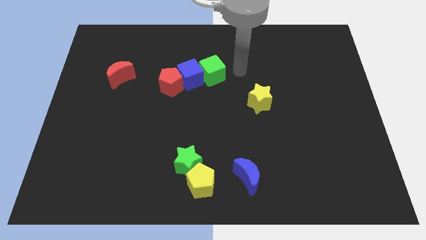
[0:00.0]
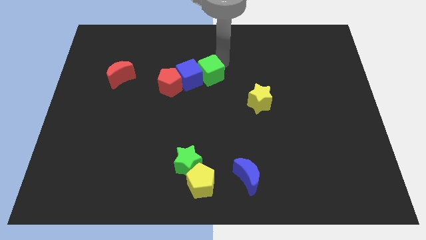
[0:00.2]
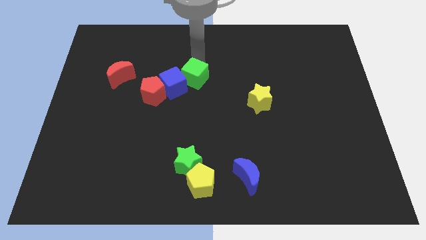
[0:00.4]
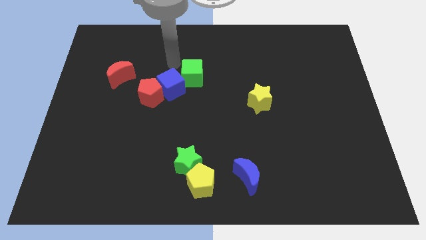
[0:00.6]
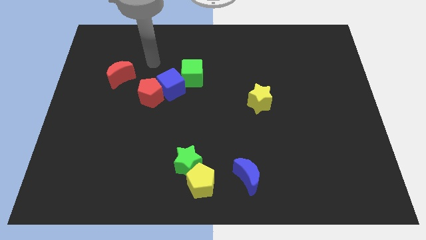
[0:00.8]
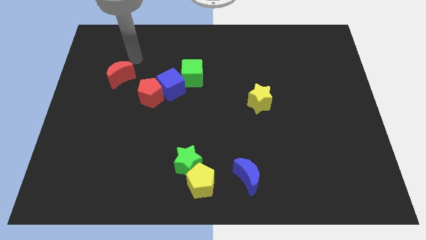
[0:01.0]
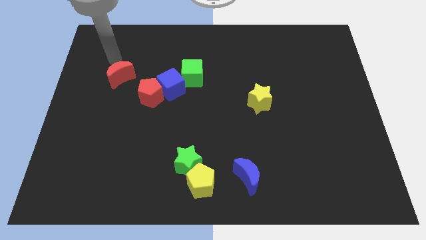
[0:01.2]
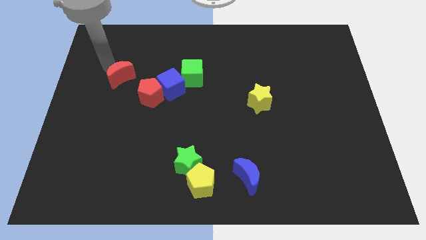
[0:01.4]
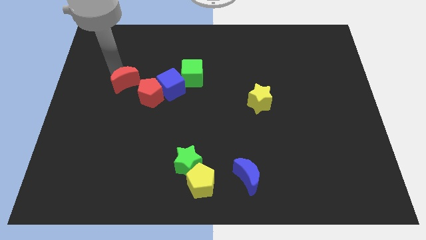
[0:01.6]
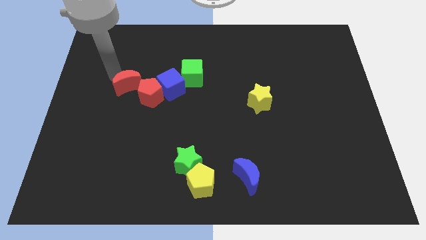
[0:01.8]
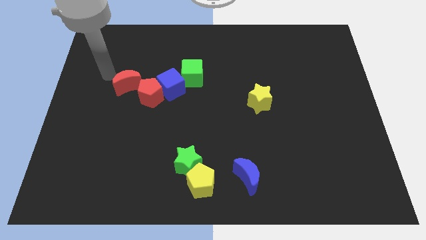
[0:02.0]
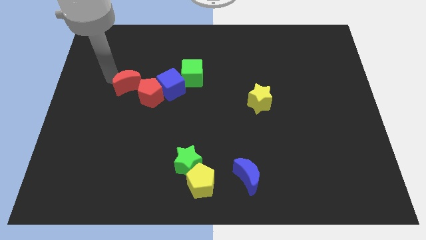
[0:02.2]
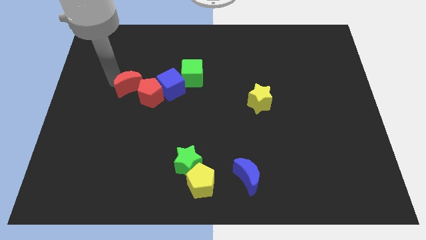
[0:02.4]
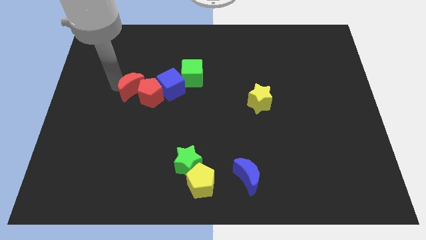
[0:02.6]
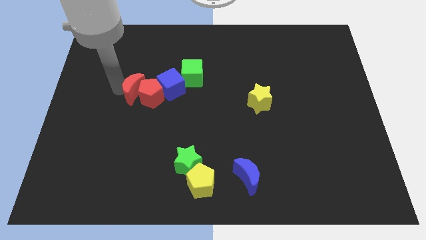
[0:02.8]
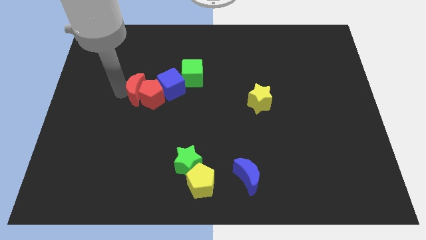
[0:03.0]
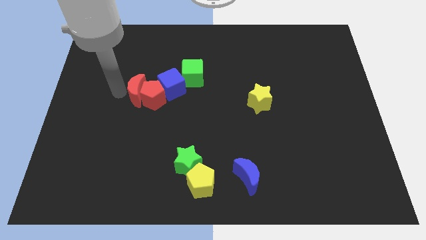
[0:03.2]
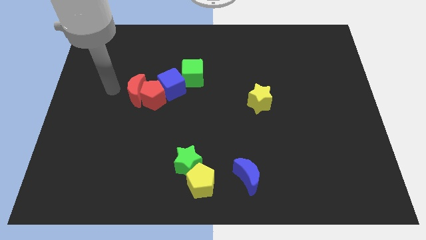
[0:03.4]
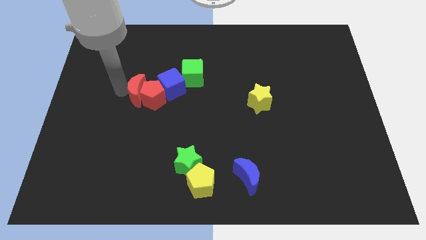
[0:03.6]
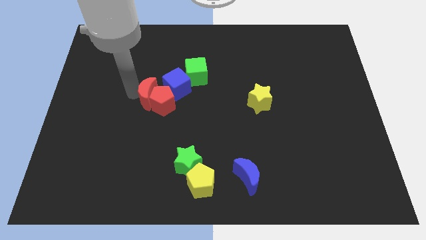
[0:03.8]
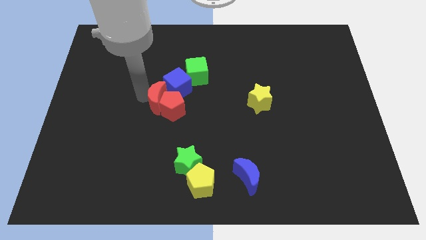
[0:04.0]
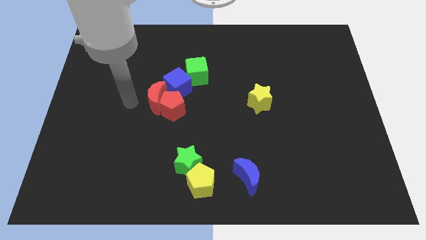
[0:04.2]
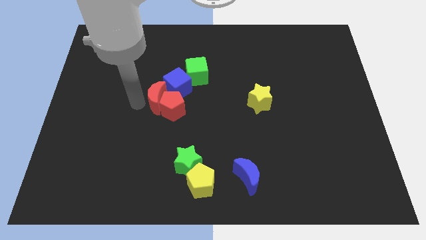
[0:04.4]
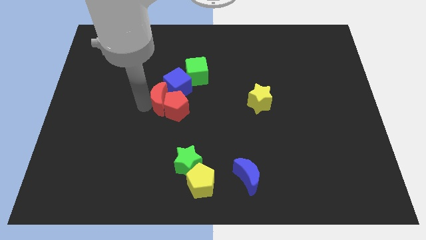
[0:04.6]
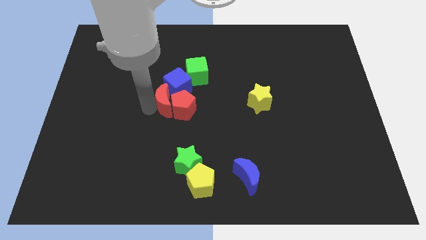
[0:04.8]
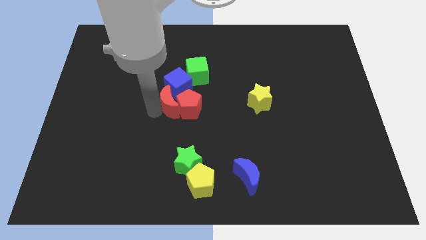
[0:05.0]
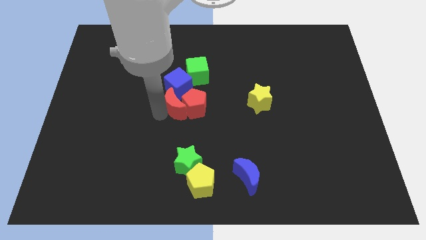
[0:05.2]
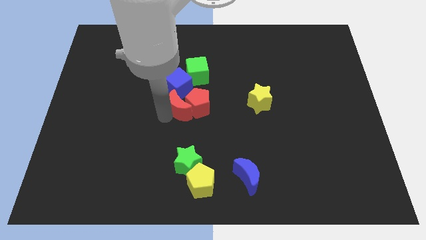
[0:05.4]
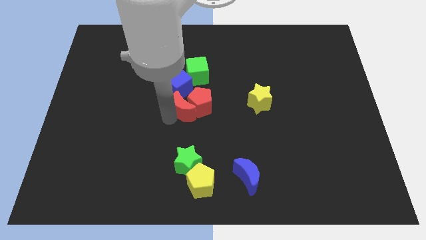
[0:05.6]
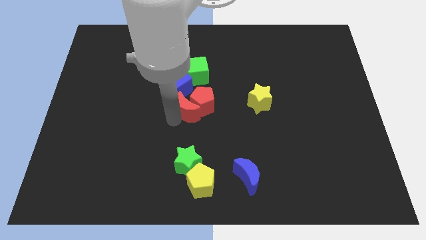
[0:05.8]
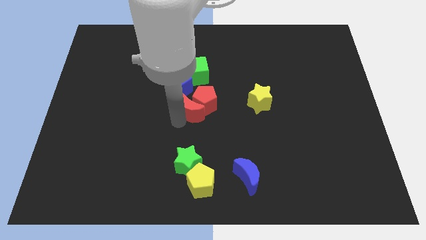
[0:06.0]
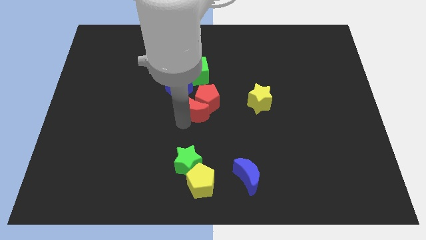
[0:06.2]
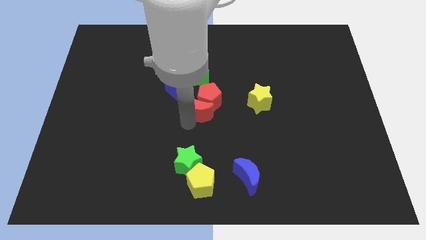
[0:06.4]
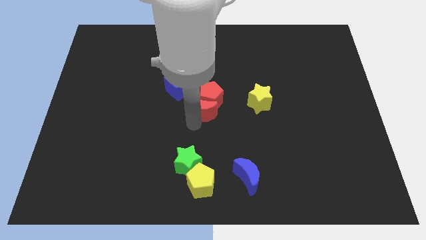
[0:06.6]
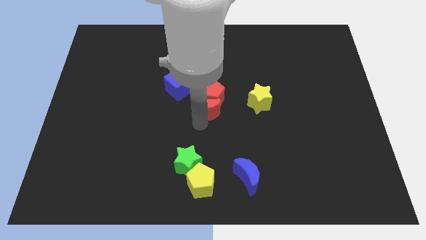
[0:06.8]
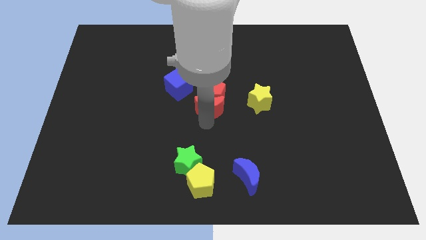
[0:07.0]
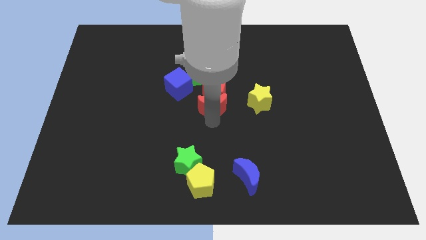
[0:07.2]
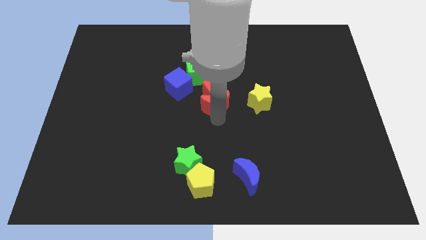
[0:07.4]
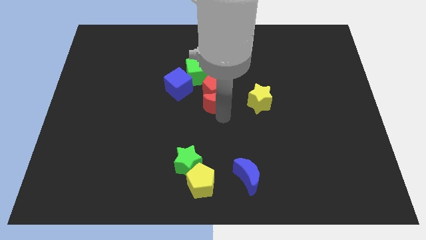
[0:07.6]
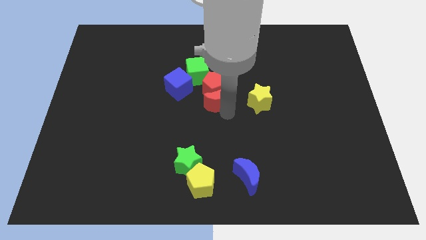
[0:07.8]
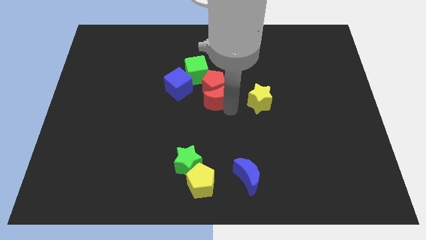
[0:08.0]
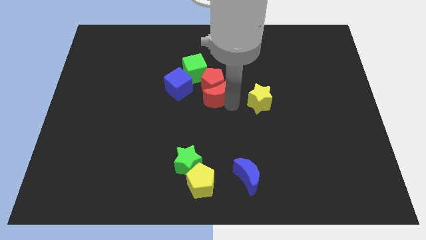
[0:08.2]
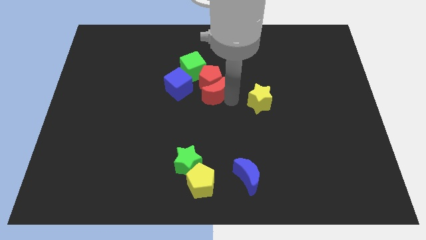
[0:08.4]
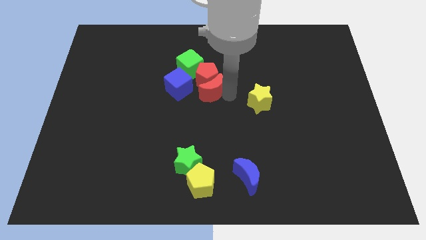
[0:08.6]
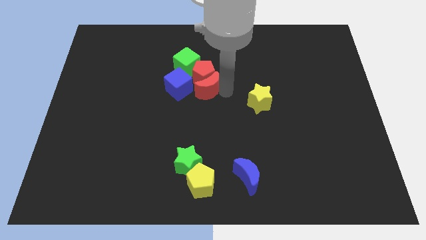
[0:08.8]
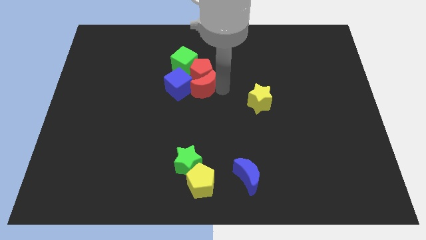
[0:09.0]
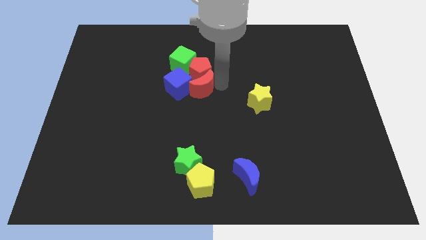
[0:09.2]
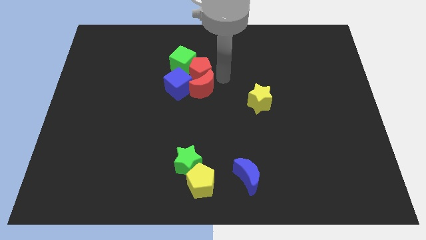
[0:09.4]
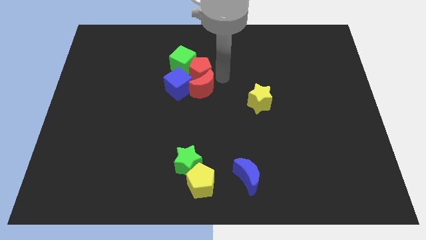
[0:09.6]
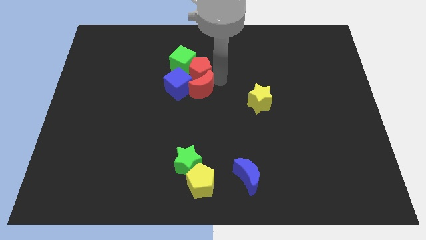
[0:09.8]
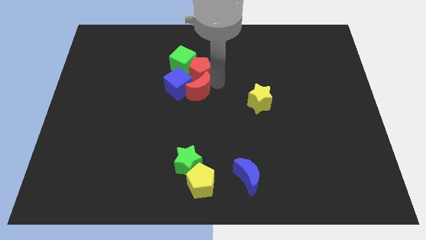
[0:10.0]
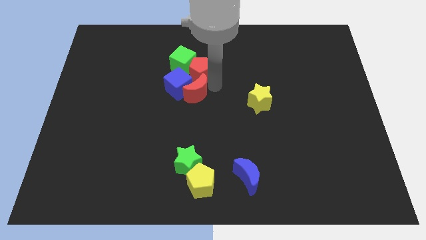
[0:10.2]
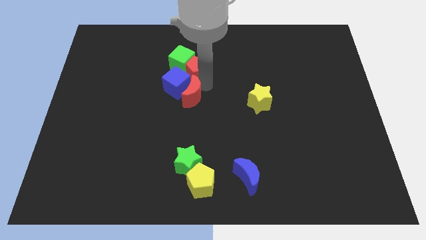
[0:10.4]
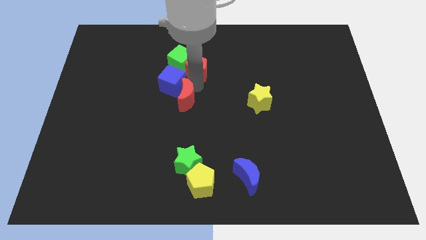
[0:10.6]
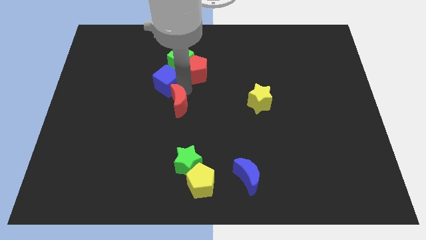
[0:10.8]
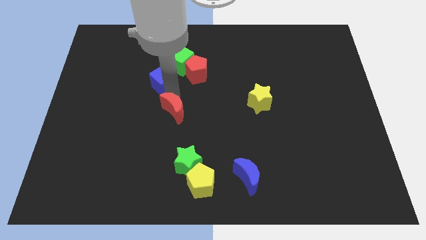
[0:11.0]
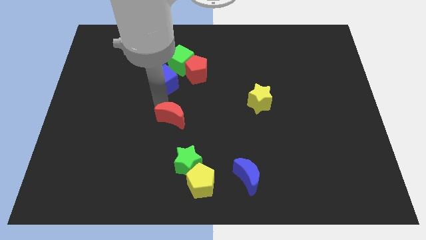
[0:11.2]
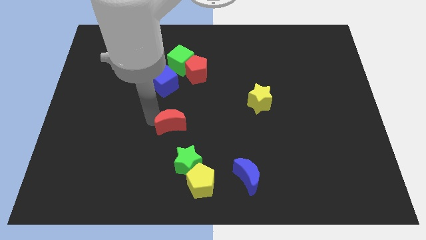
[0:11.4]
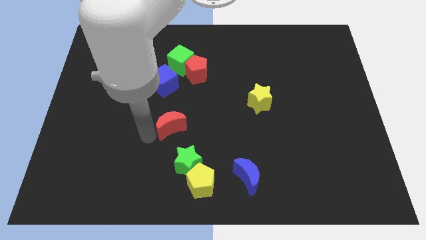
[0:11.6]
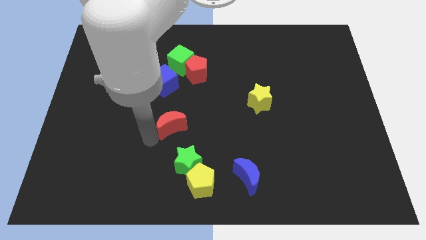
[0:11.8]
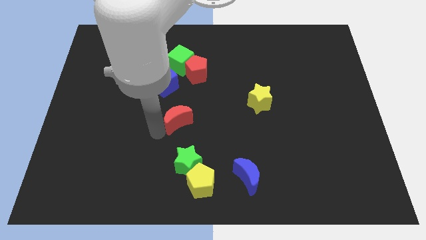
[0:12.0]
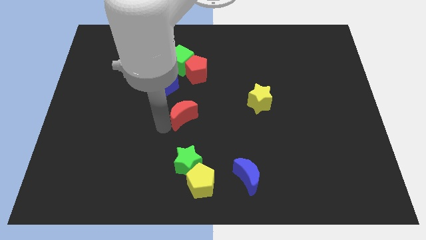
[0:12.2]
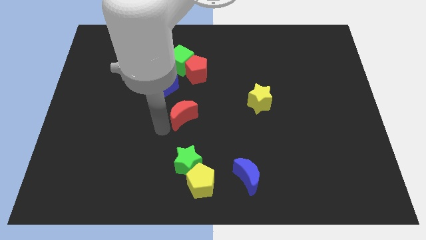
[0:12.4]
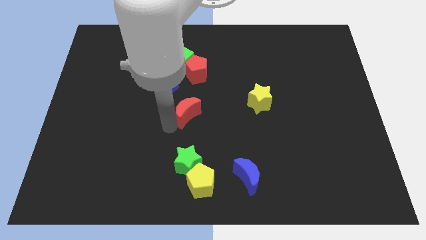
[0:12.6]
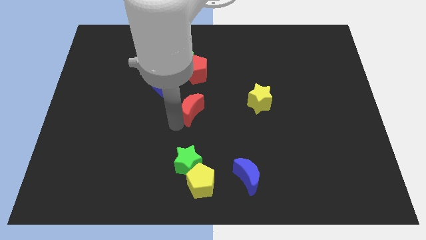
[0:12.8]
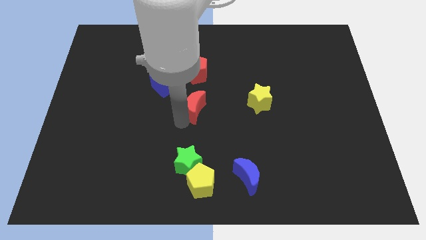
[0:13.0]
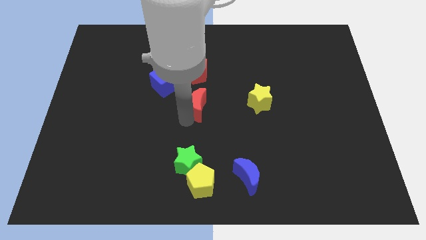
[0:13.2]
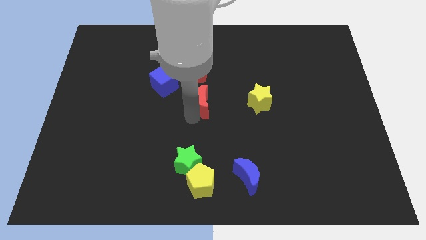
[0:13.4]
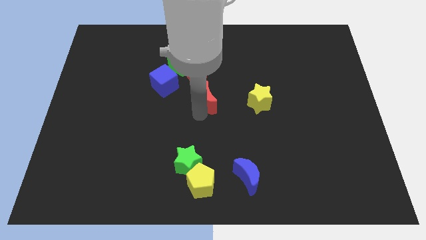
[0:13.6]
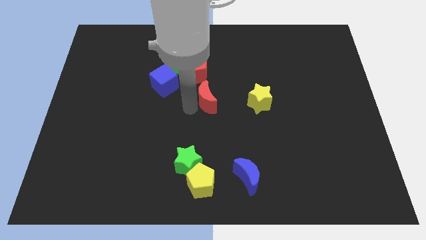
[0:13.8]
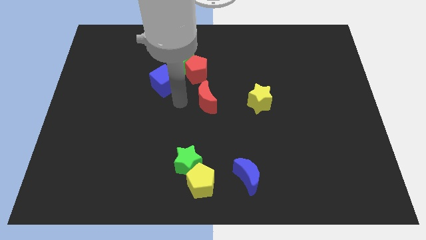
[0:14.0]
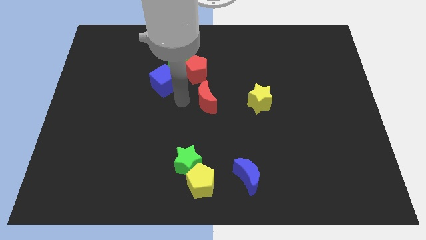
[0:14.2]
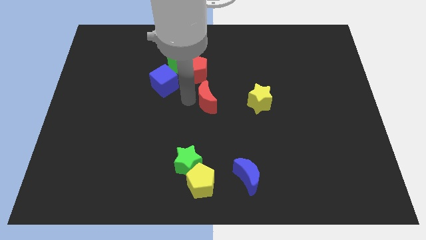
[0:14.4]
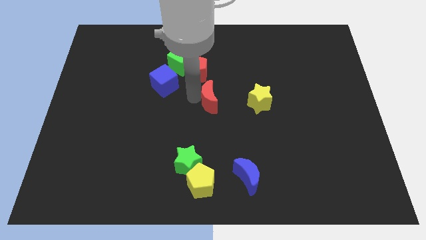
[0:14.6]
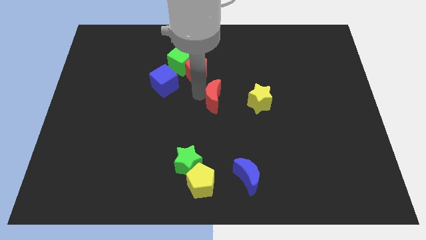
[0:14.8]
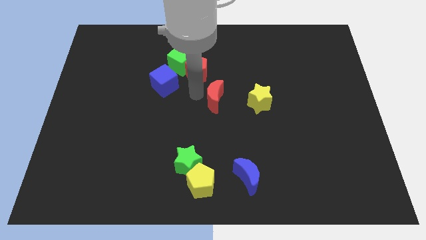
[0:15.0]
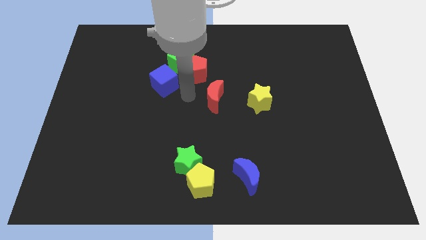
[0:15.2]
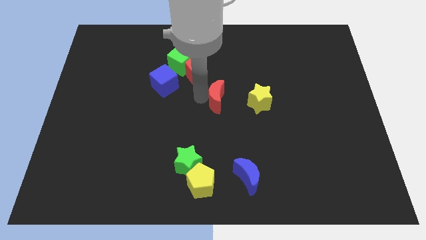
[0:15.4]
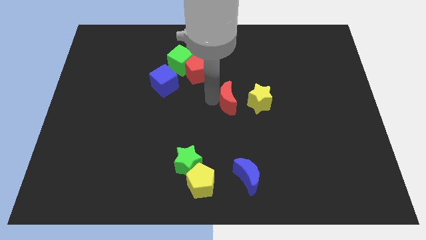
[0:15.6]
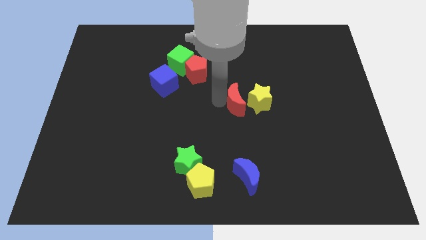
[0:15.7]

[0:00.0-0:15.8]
slide the red moon close to the yellow star
